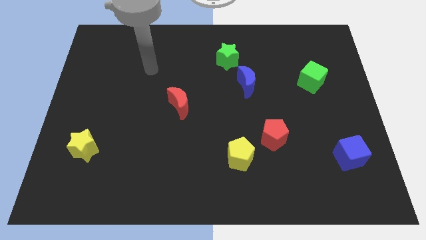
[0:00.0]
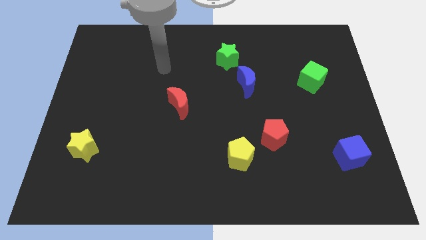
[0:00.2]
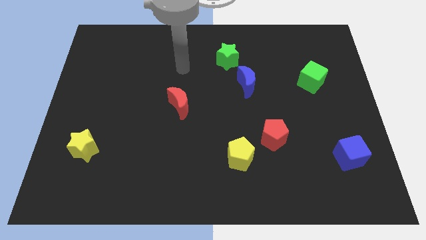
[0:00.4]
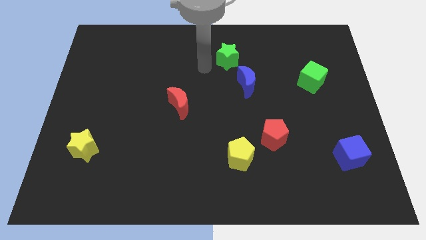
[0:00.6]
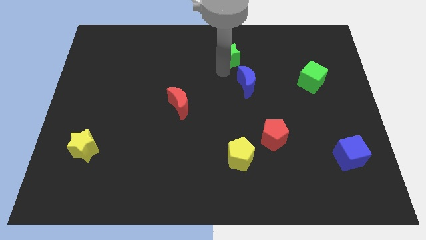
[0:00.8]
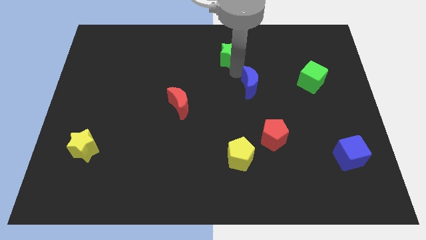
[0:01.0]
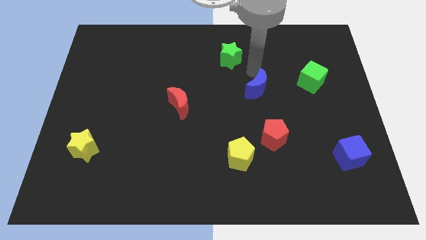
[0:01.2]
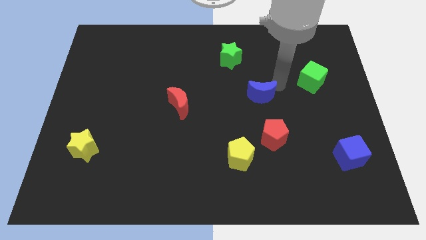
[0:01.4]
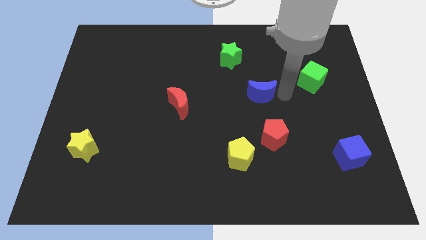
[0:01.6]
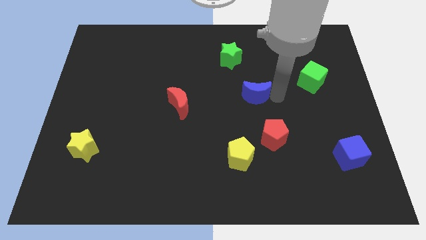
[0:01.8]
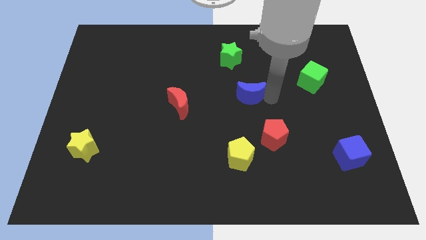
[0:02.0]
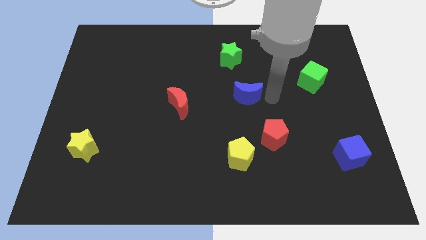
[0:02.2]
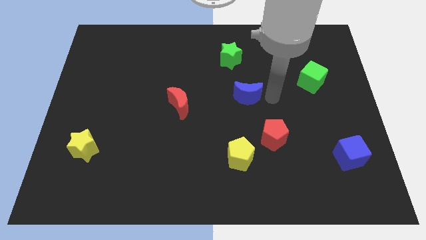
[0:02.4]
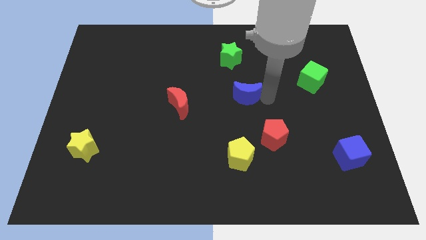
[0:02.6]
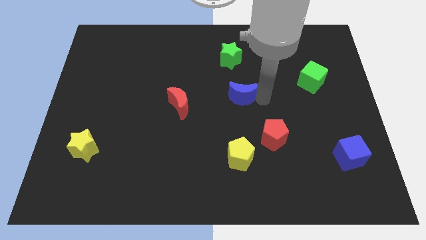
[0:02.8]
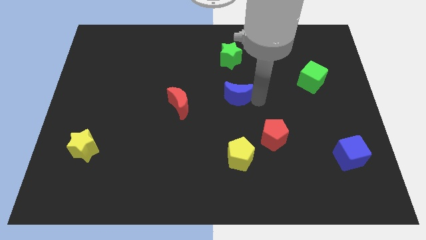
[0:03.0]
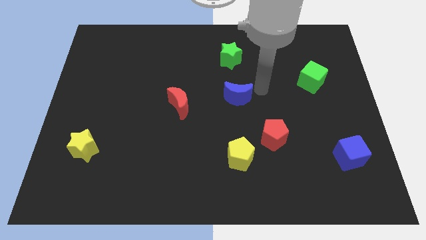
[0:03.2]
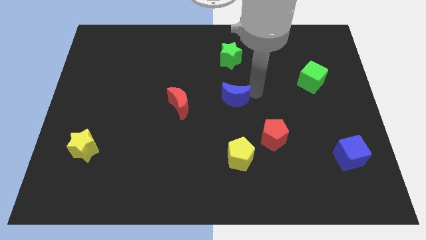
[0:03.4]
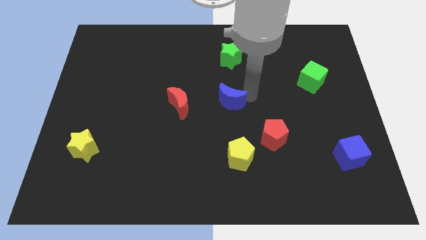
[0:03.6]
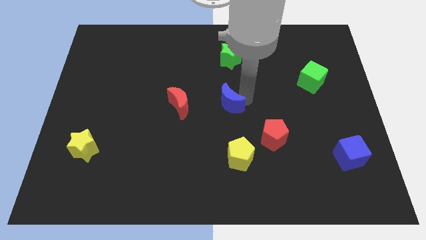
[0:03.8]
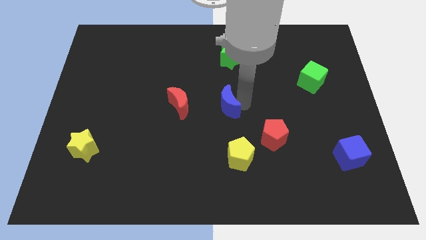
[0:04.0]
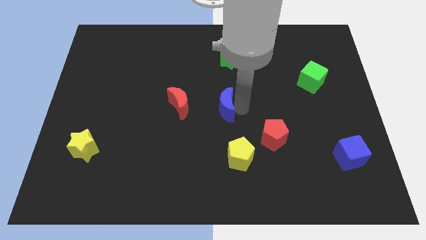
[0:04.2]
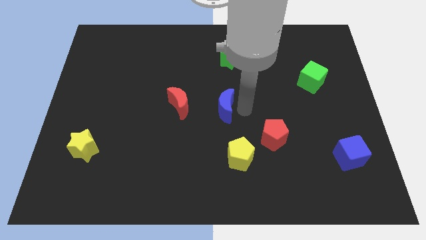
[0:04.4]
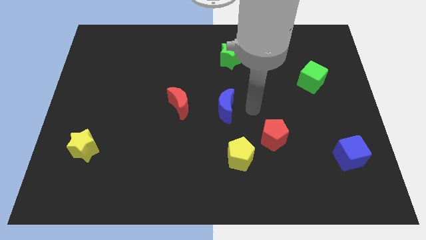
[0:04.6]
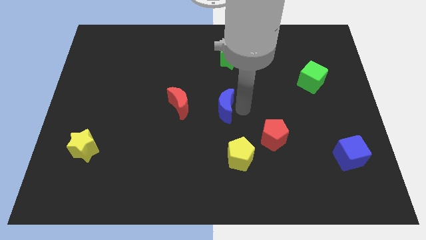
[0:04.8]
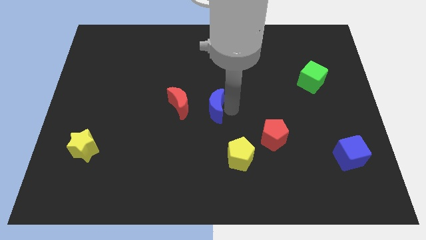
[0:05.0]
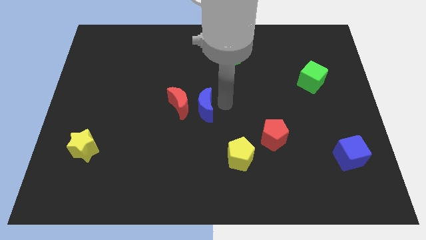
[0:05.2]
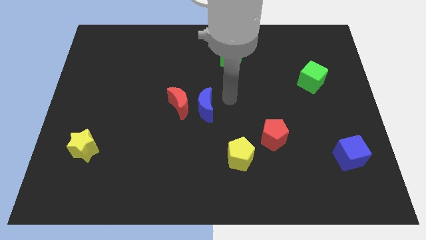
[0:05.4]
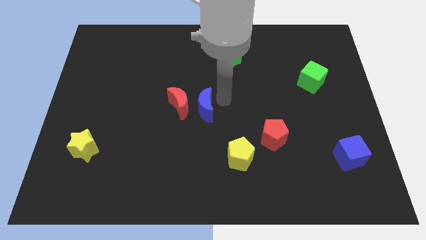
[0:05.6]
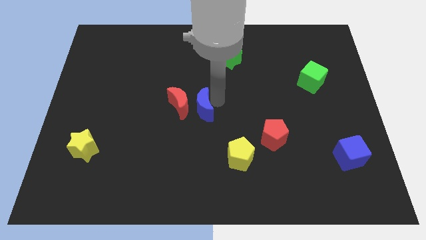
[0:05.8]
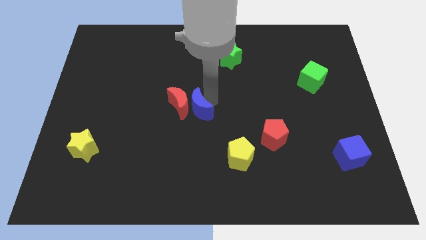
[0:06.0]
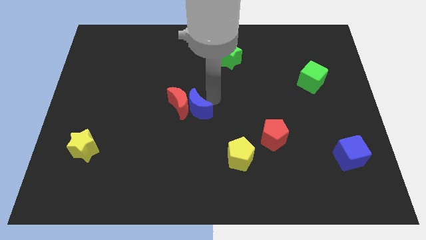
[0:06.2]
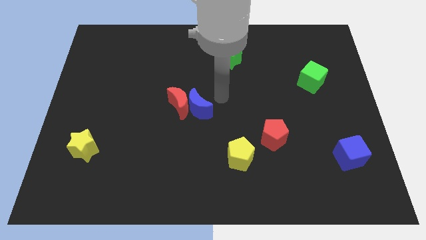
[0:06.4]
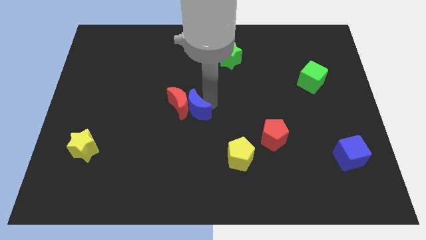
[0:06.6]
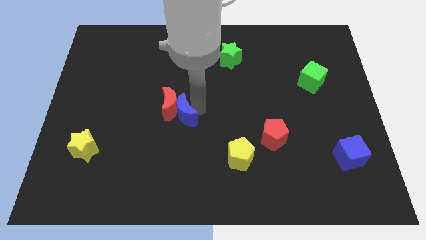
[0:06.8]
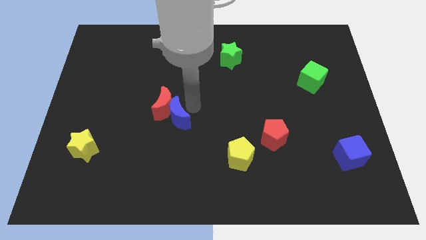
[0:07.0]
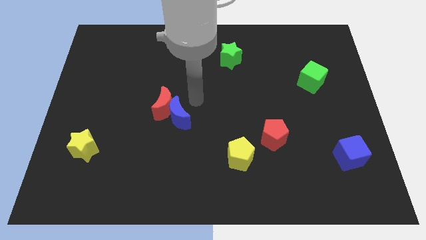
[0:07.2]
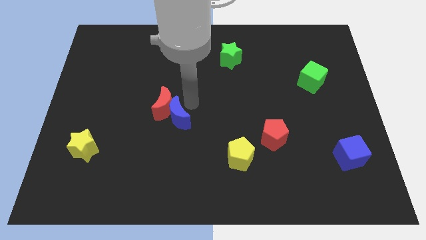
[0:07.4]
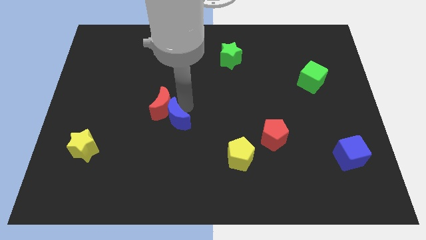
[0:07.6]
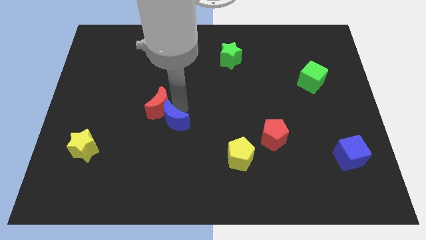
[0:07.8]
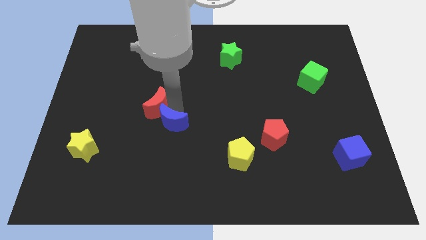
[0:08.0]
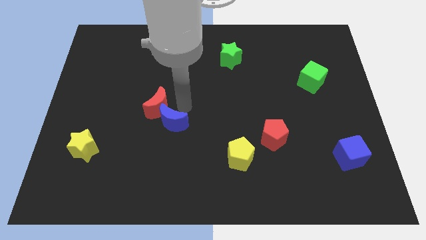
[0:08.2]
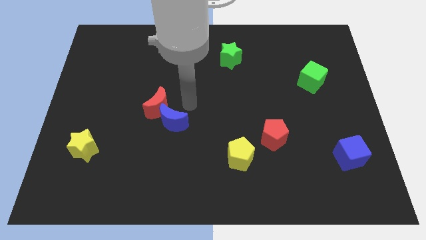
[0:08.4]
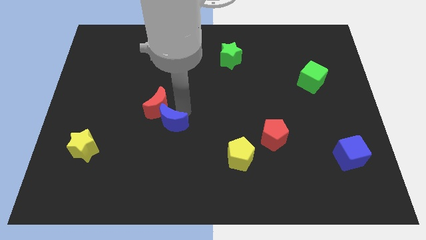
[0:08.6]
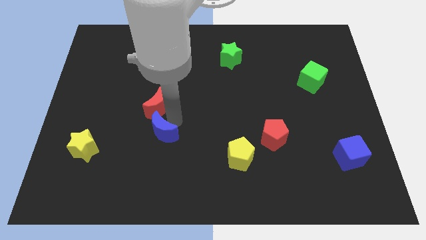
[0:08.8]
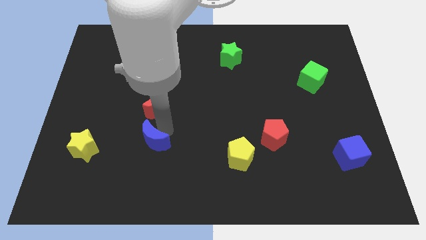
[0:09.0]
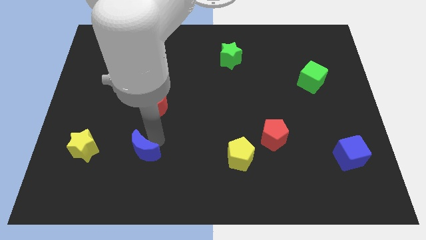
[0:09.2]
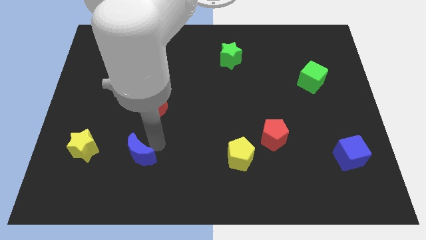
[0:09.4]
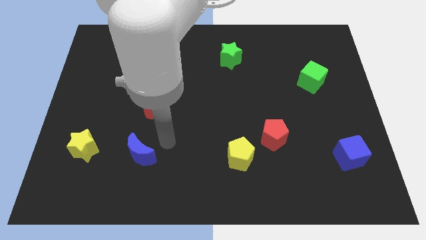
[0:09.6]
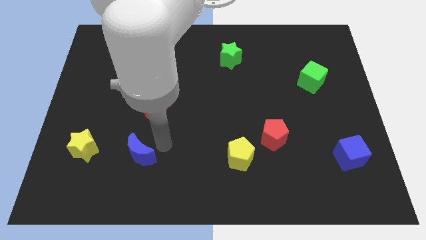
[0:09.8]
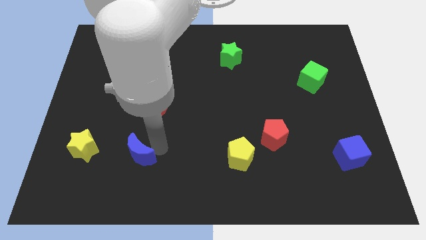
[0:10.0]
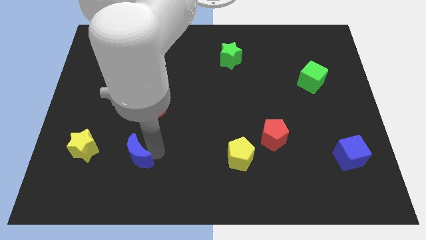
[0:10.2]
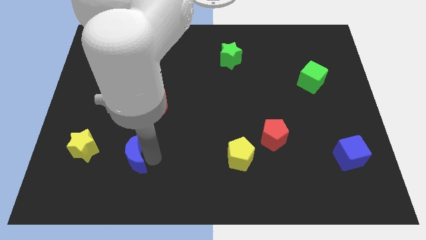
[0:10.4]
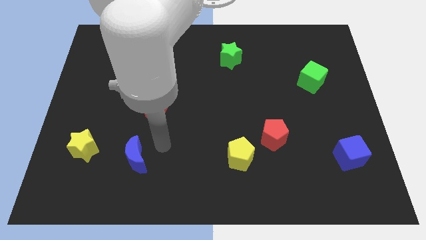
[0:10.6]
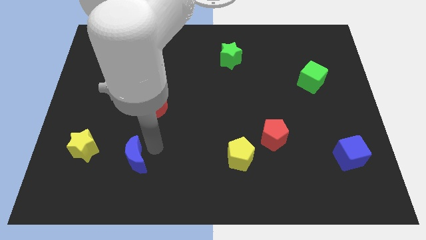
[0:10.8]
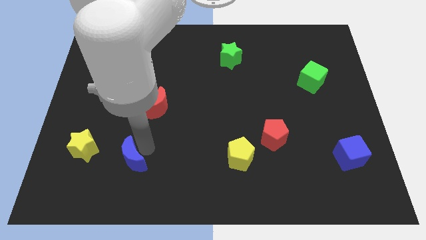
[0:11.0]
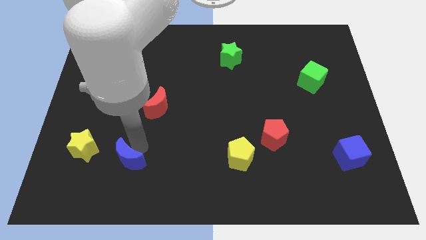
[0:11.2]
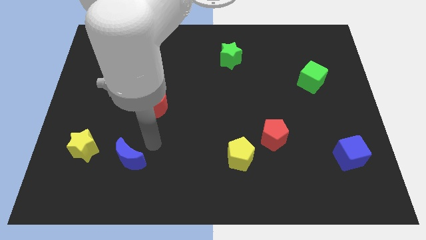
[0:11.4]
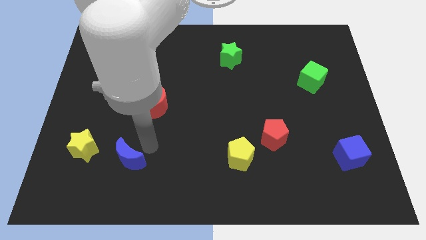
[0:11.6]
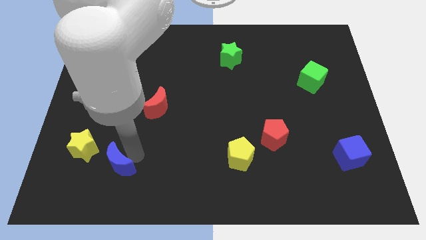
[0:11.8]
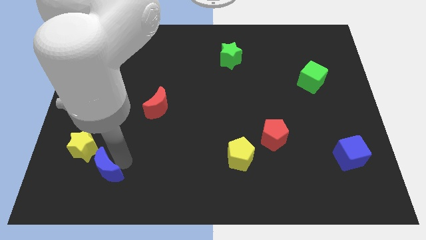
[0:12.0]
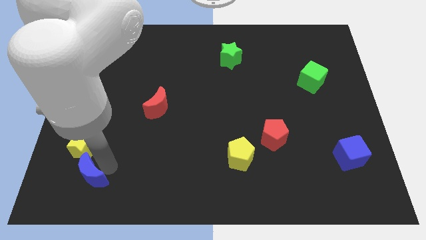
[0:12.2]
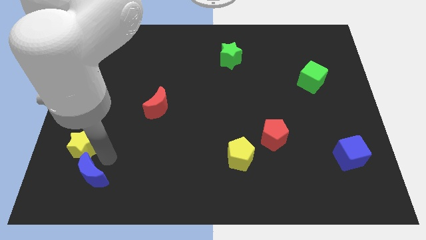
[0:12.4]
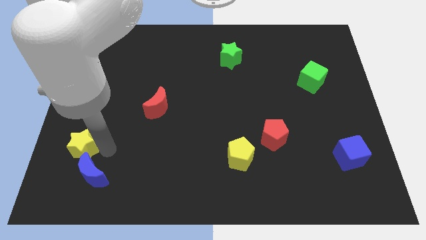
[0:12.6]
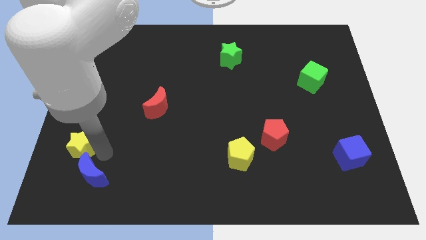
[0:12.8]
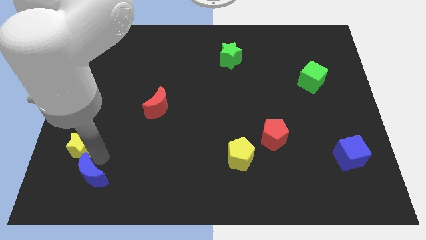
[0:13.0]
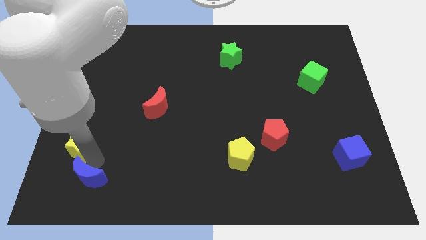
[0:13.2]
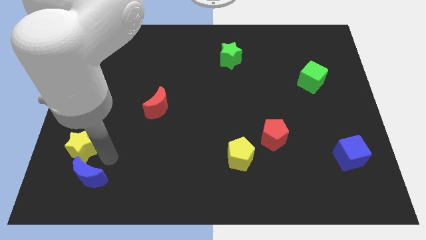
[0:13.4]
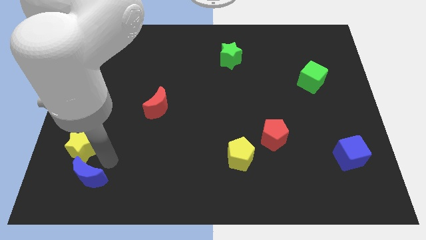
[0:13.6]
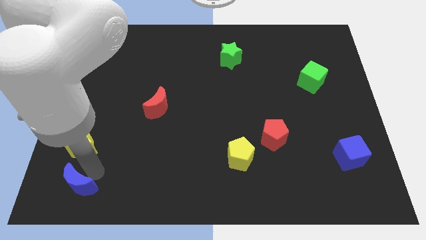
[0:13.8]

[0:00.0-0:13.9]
move the blue moon to the bottom left of the board
